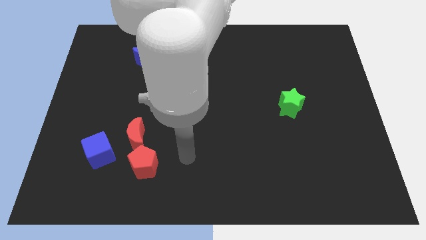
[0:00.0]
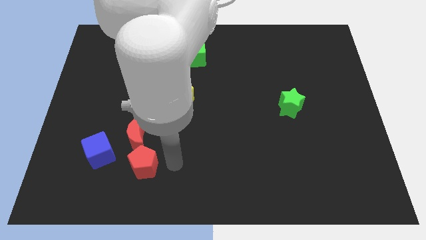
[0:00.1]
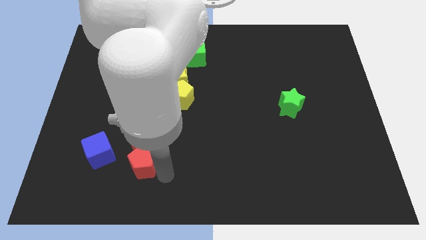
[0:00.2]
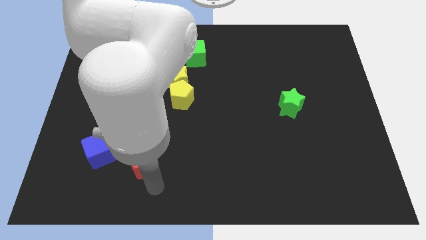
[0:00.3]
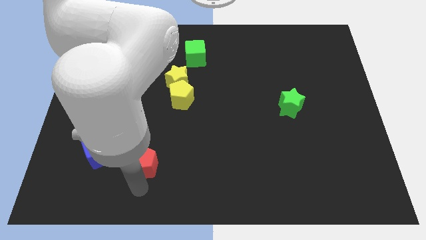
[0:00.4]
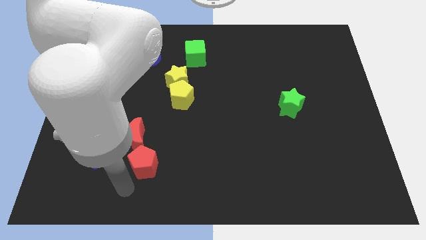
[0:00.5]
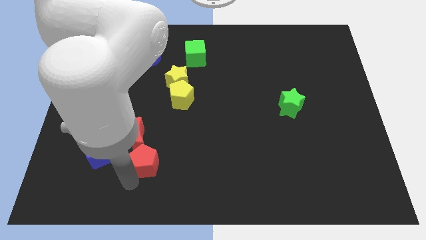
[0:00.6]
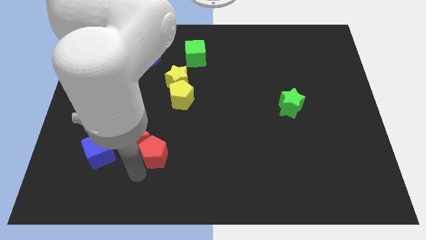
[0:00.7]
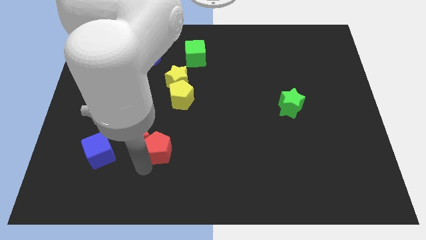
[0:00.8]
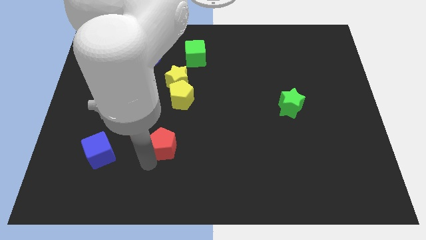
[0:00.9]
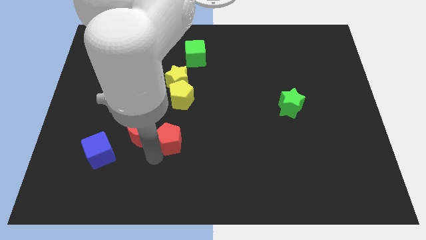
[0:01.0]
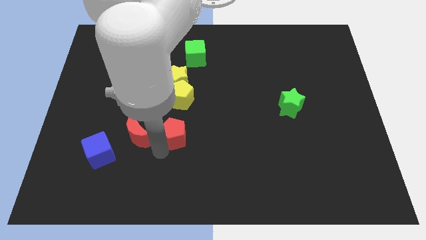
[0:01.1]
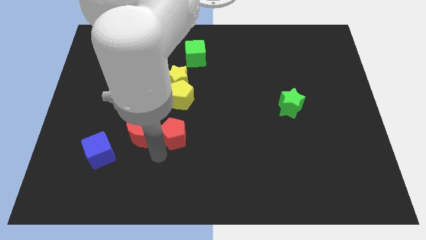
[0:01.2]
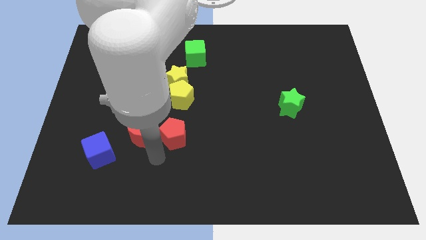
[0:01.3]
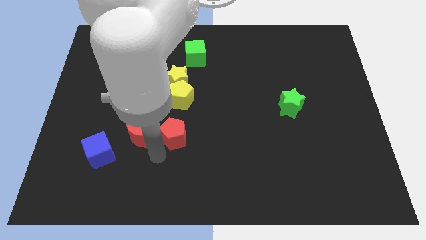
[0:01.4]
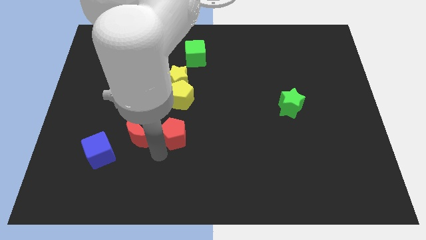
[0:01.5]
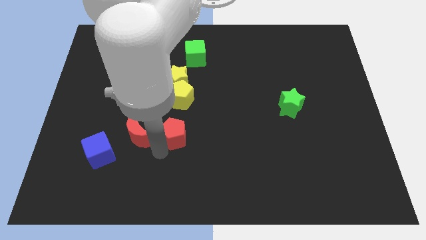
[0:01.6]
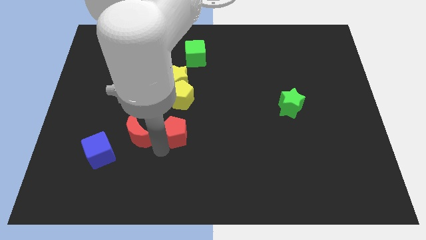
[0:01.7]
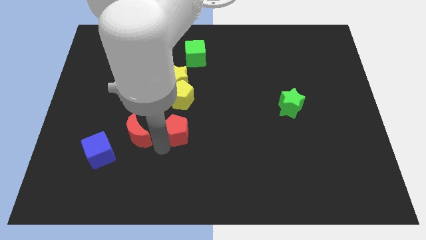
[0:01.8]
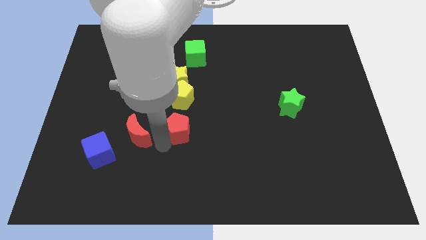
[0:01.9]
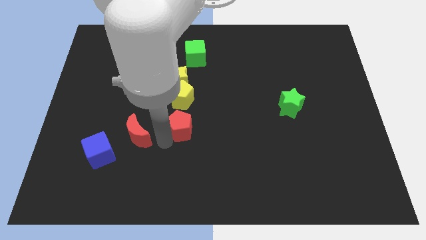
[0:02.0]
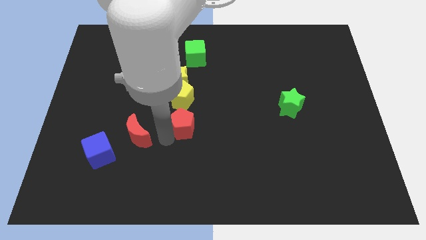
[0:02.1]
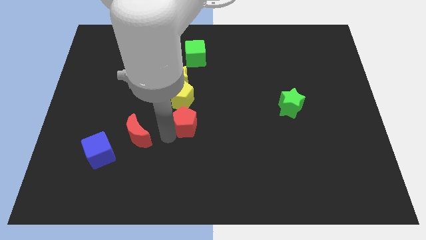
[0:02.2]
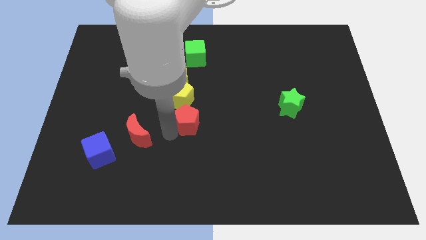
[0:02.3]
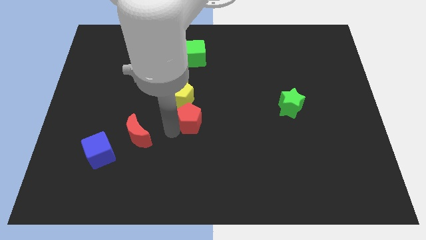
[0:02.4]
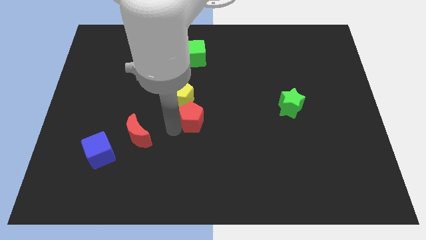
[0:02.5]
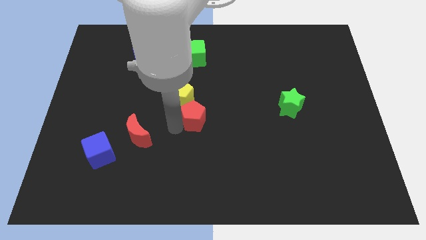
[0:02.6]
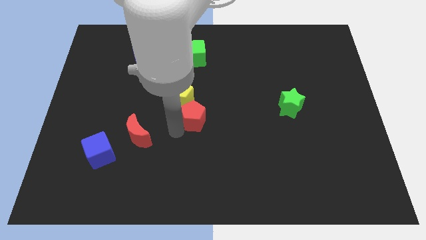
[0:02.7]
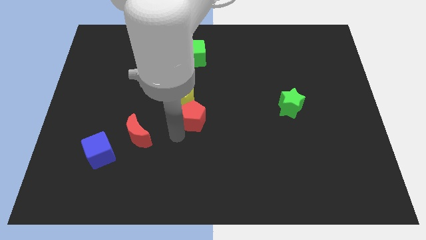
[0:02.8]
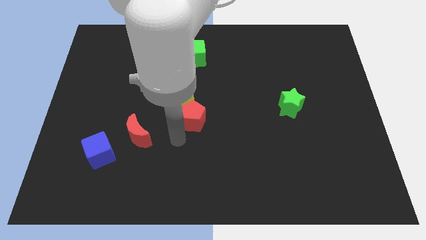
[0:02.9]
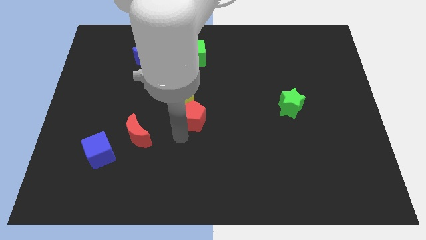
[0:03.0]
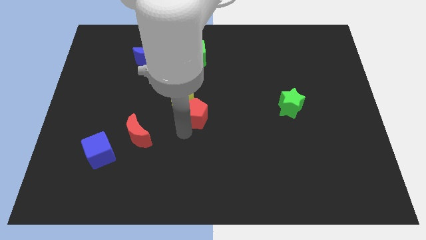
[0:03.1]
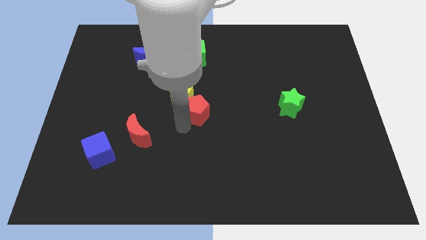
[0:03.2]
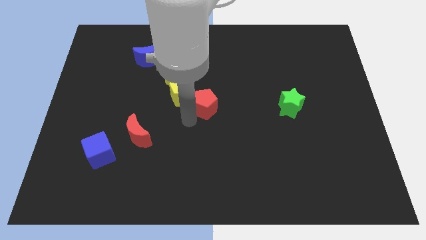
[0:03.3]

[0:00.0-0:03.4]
push the red pentagon upwards and to the right

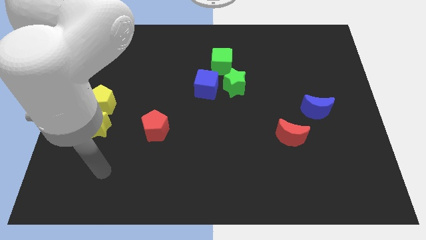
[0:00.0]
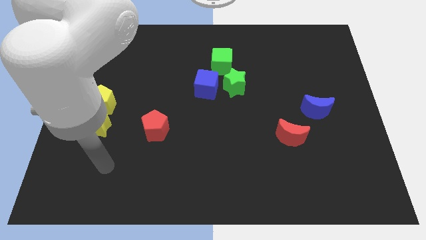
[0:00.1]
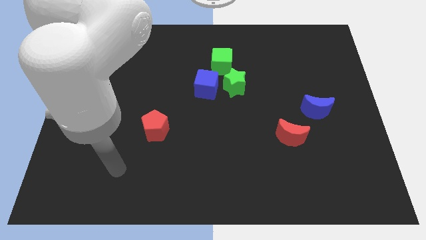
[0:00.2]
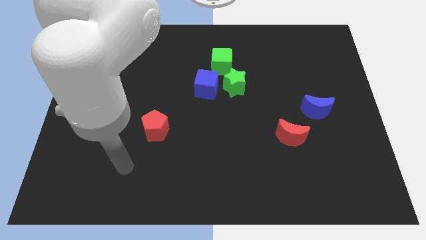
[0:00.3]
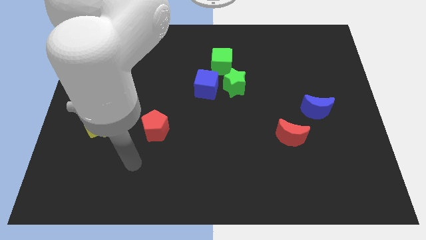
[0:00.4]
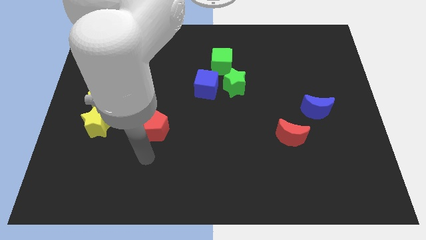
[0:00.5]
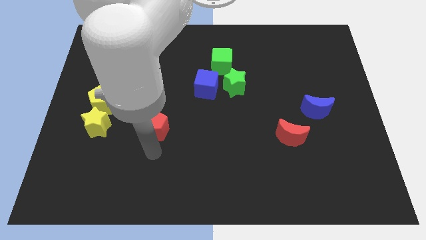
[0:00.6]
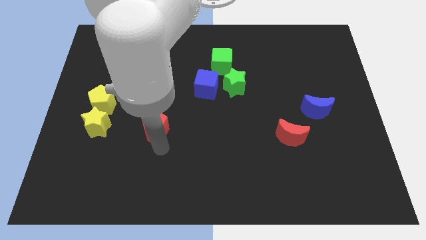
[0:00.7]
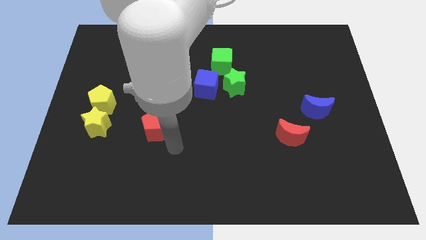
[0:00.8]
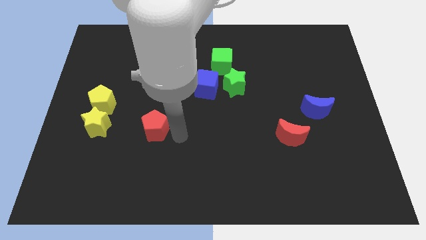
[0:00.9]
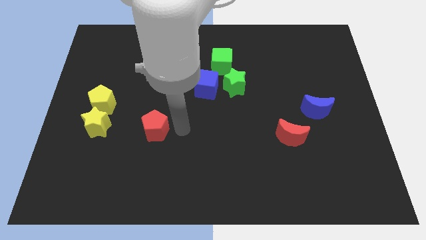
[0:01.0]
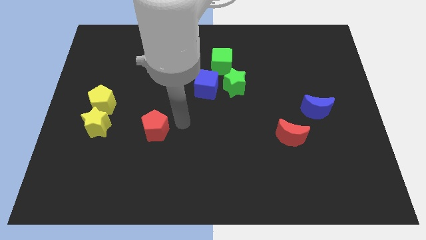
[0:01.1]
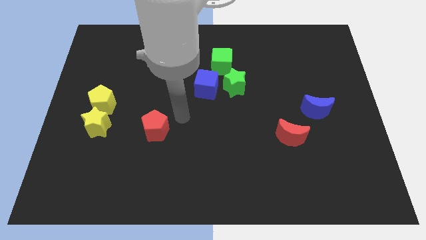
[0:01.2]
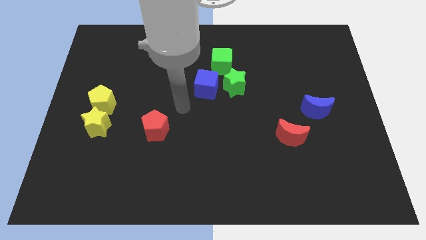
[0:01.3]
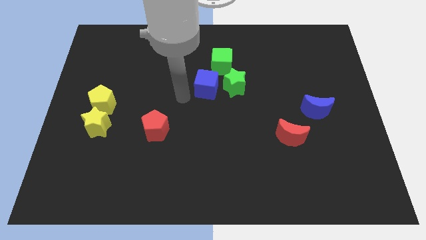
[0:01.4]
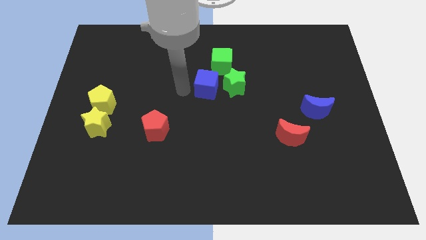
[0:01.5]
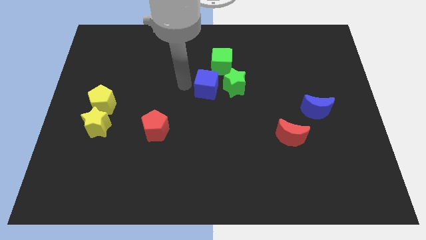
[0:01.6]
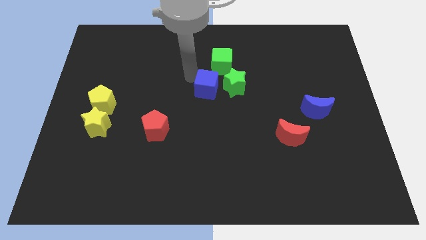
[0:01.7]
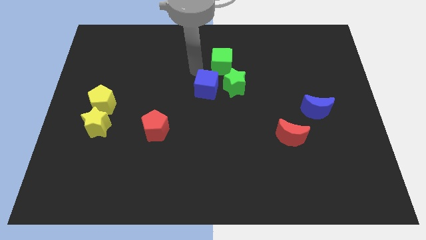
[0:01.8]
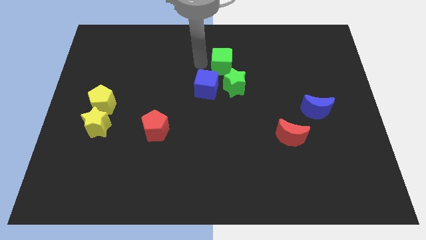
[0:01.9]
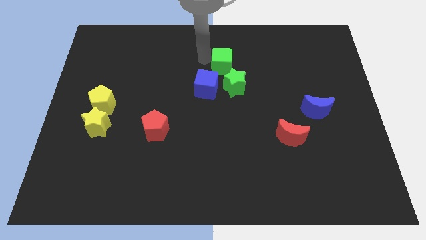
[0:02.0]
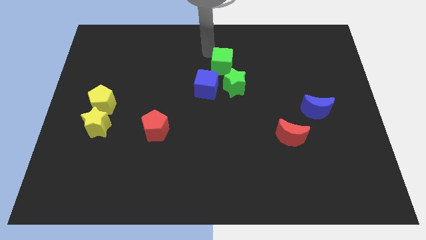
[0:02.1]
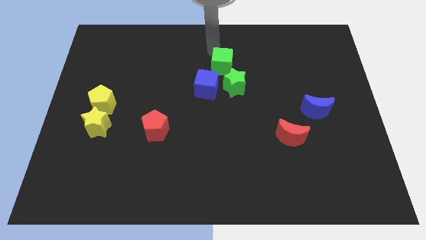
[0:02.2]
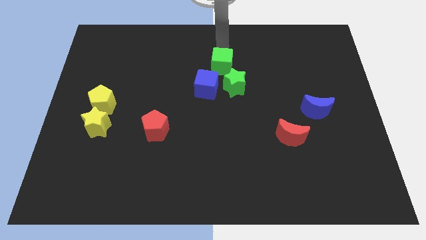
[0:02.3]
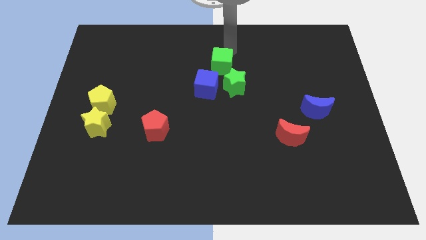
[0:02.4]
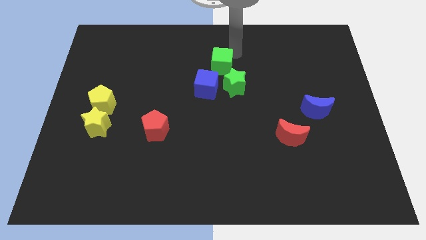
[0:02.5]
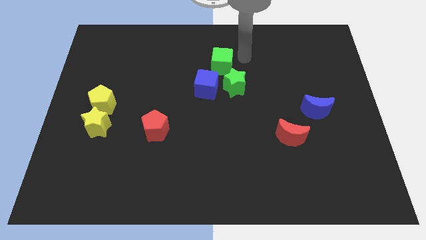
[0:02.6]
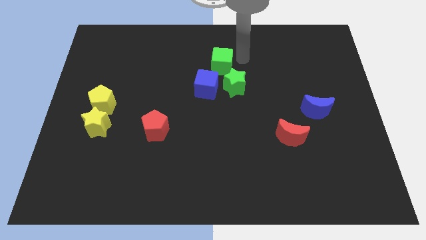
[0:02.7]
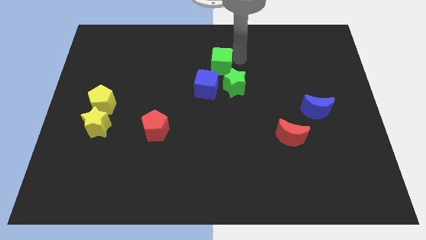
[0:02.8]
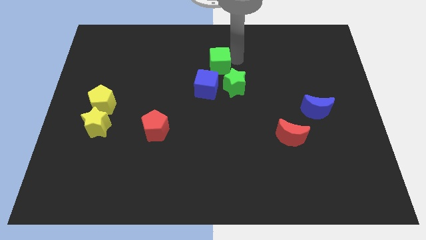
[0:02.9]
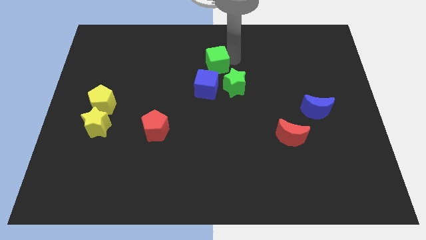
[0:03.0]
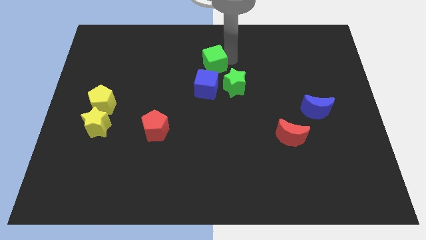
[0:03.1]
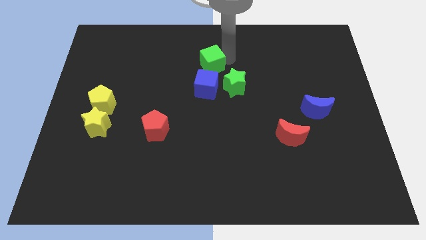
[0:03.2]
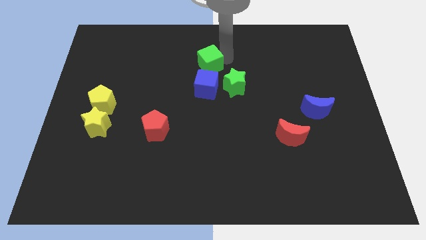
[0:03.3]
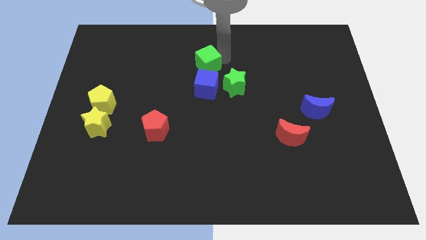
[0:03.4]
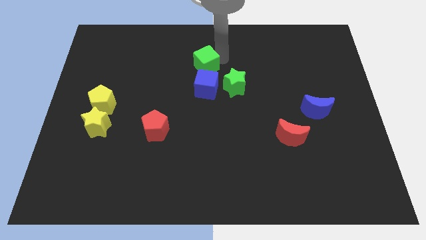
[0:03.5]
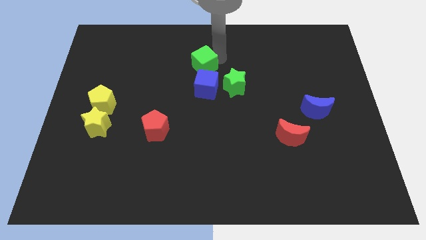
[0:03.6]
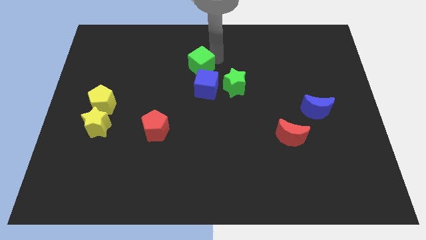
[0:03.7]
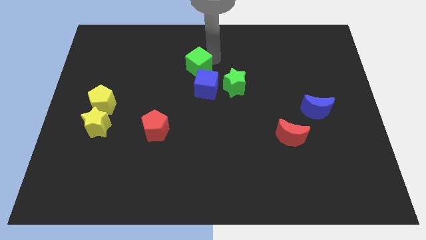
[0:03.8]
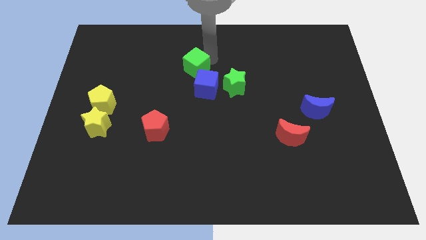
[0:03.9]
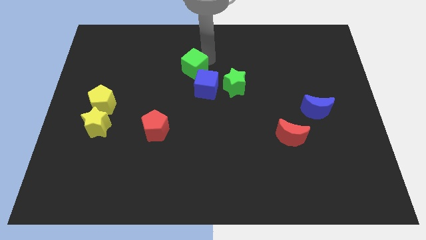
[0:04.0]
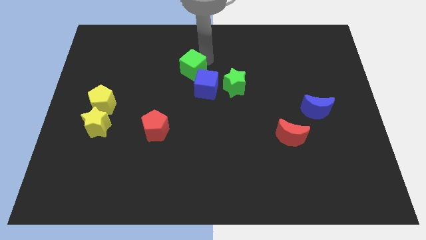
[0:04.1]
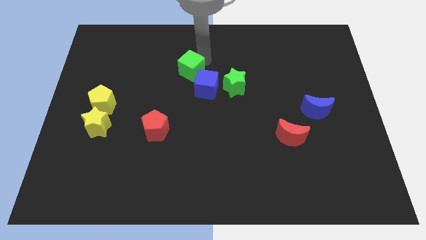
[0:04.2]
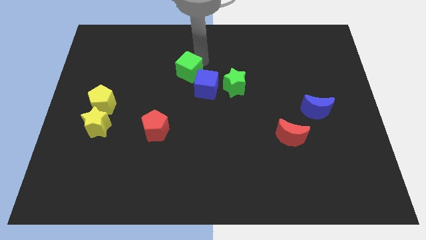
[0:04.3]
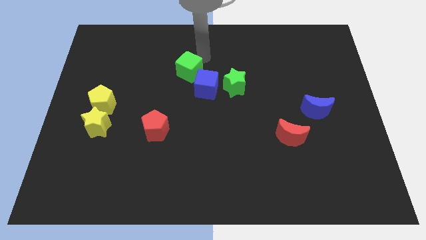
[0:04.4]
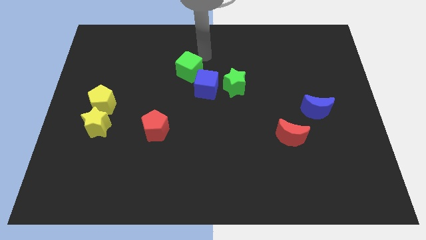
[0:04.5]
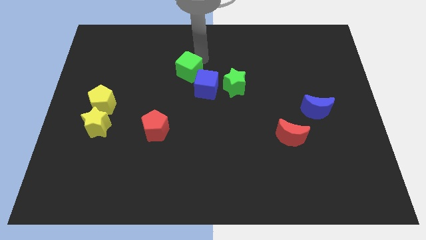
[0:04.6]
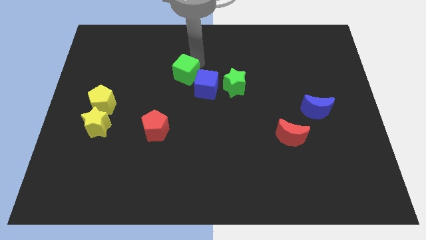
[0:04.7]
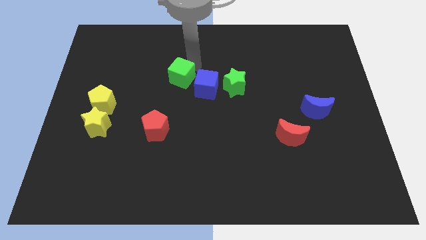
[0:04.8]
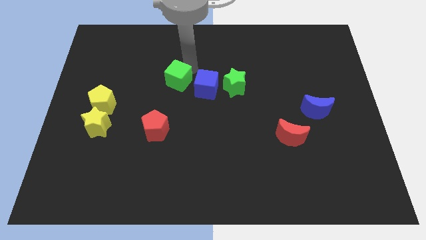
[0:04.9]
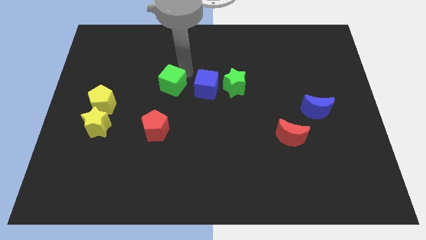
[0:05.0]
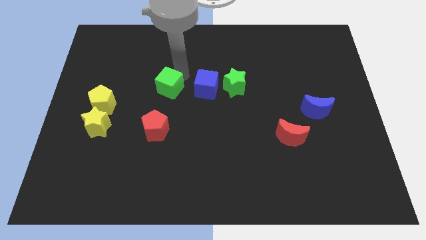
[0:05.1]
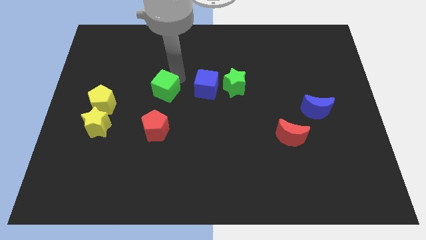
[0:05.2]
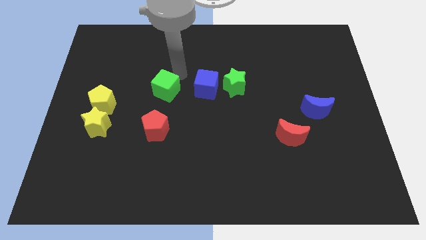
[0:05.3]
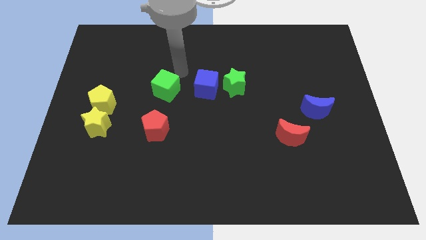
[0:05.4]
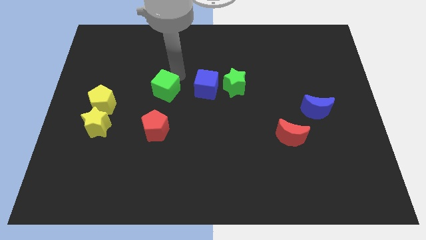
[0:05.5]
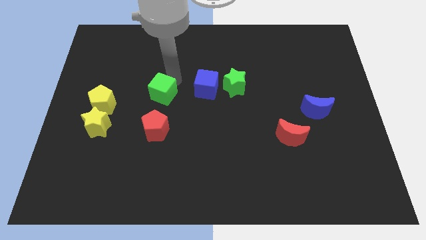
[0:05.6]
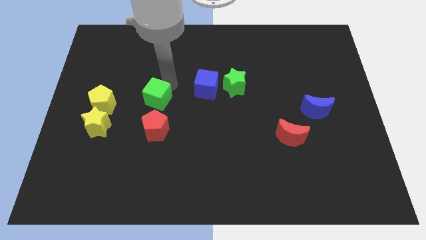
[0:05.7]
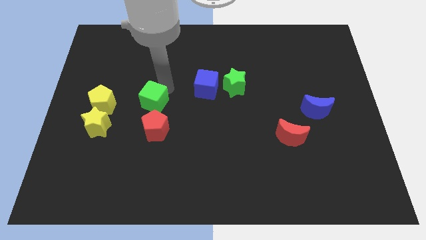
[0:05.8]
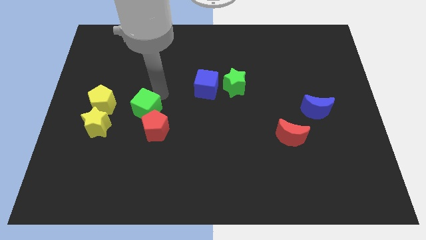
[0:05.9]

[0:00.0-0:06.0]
slide the green cube downwards and left
